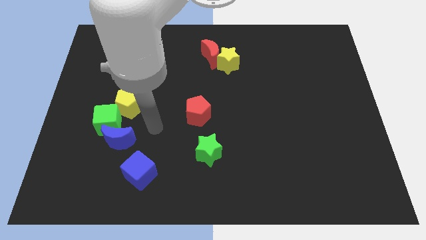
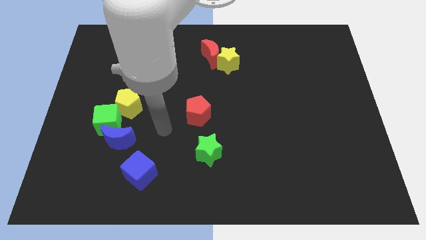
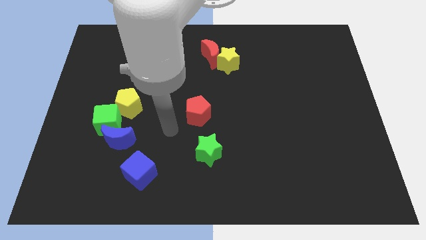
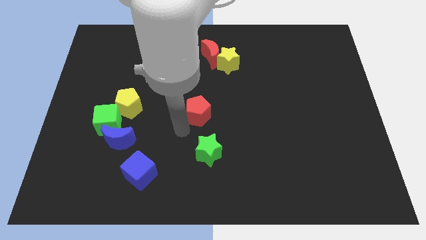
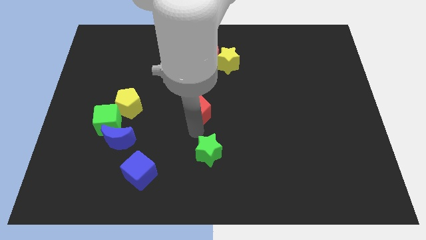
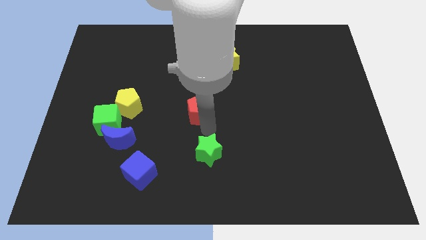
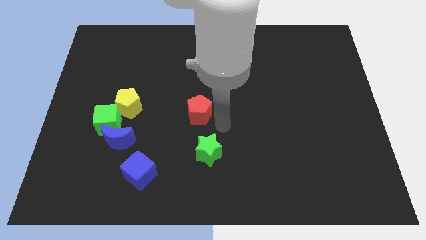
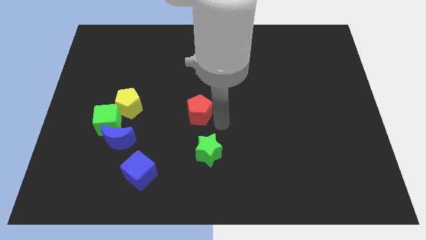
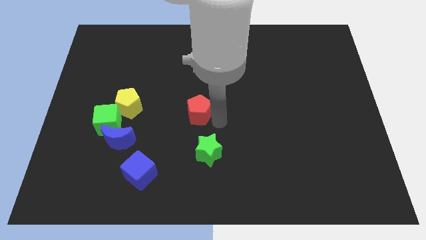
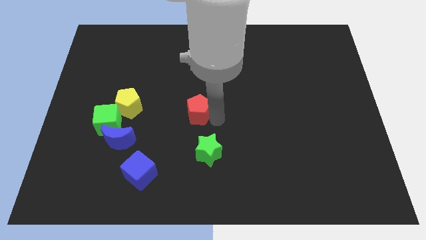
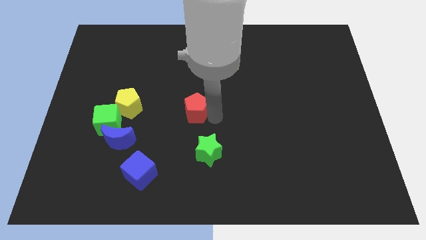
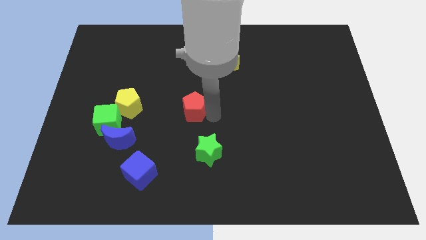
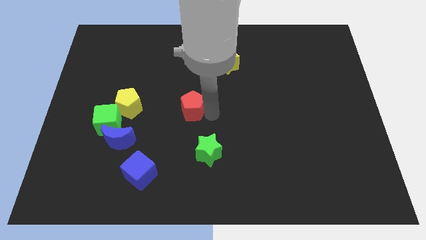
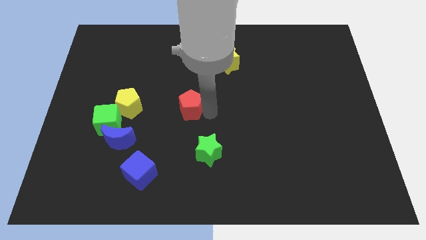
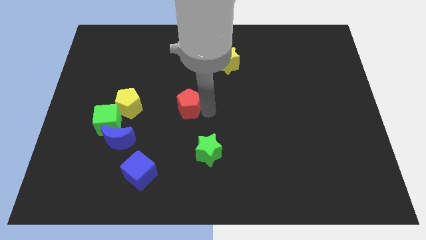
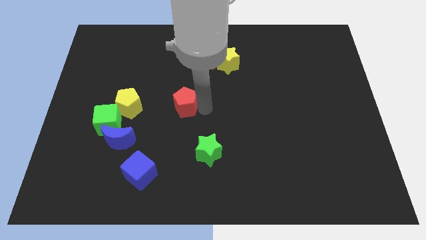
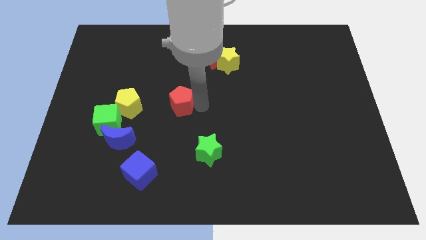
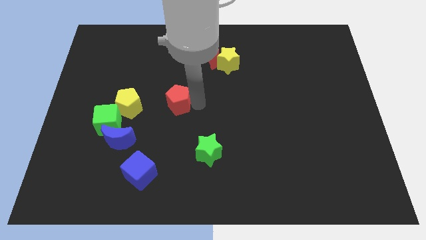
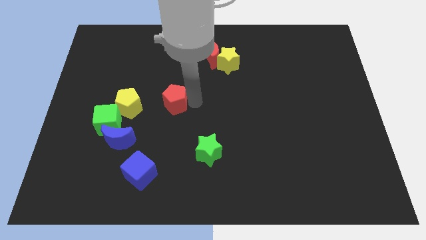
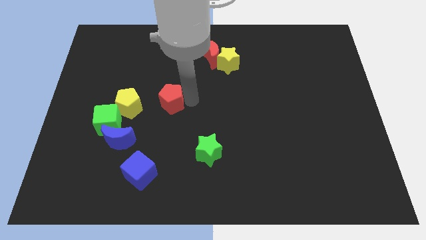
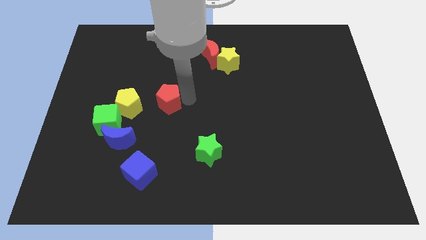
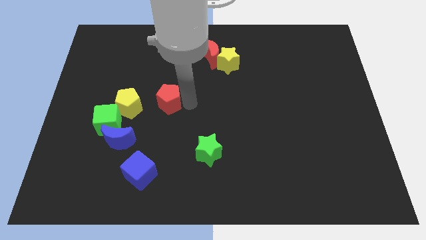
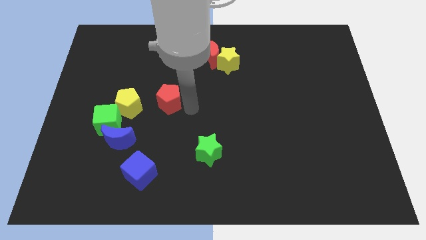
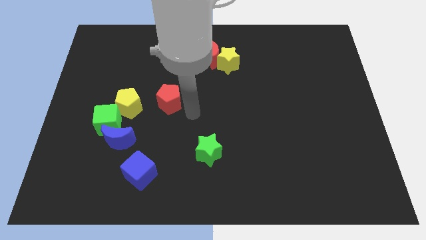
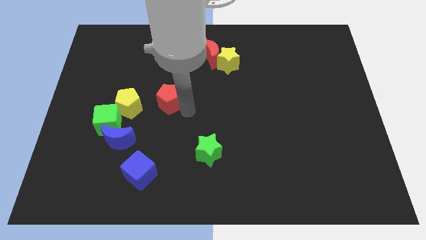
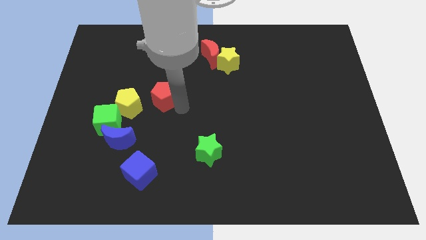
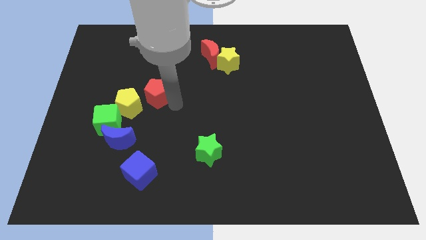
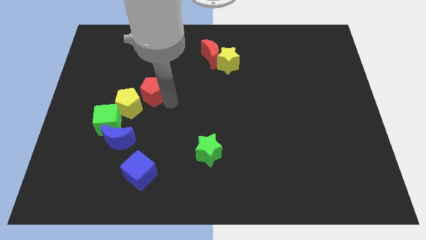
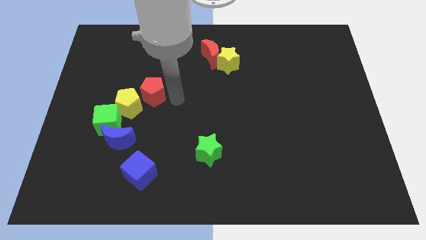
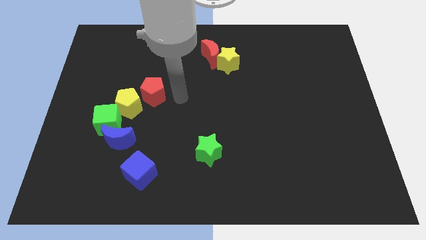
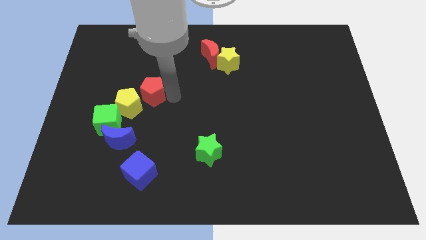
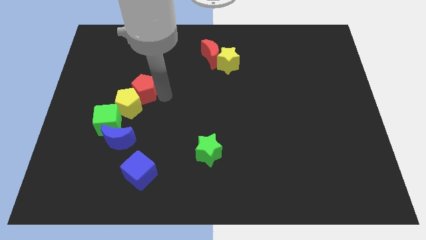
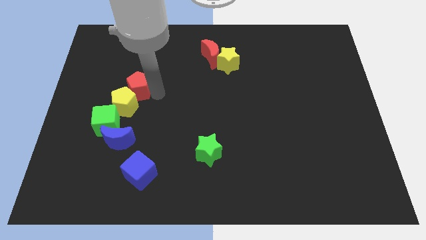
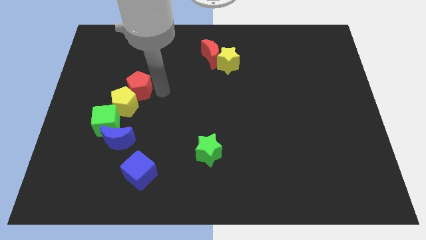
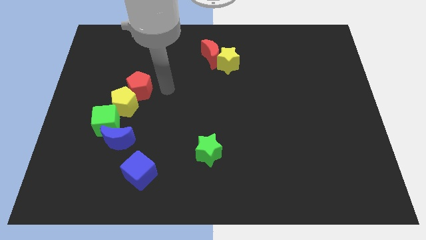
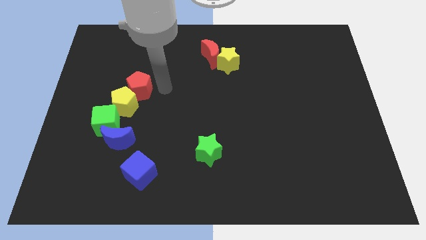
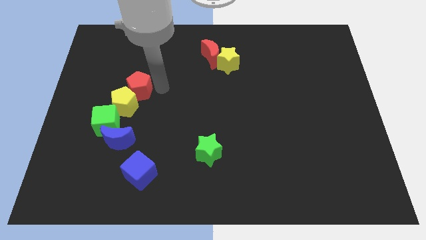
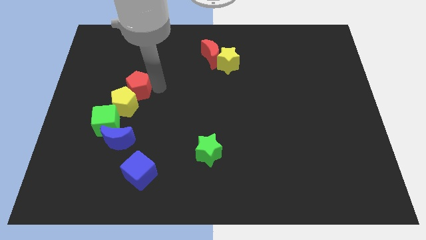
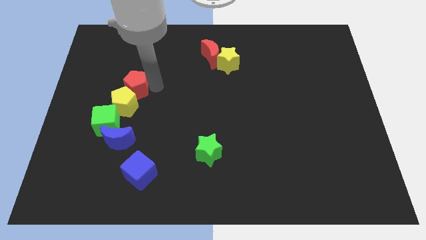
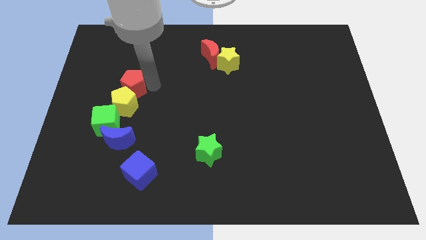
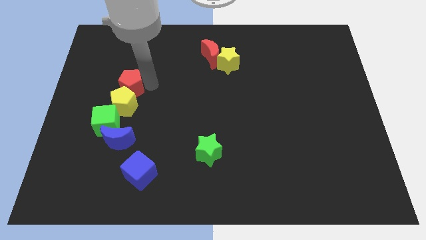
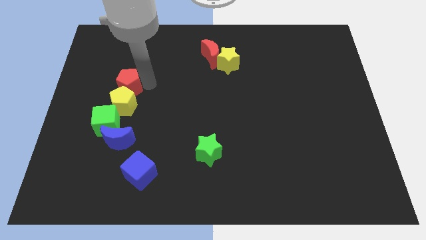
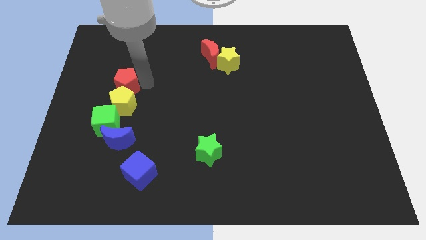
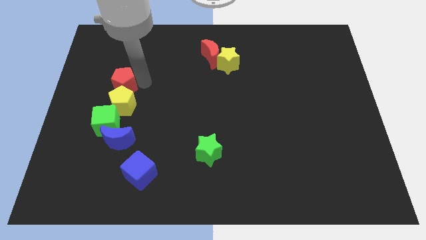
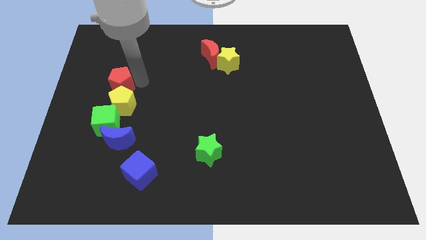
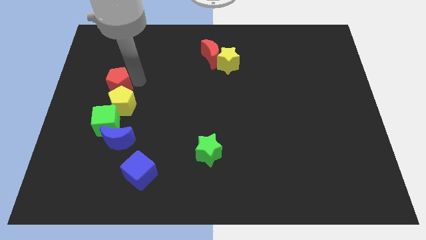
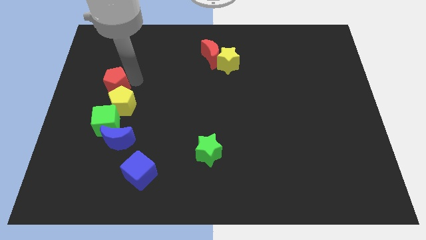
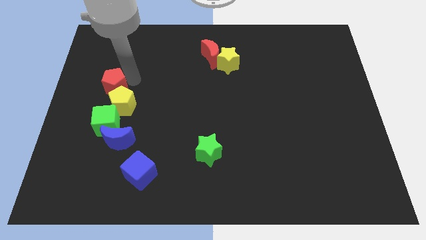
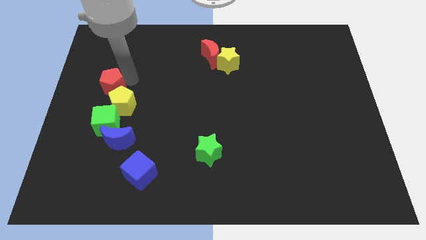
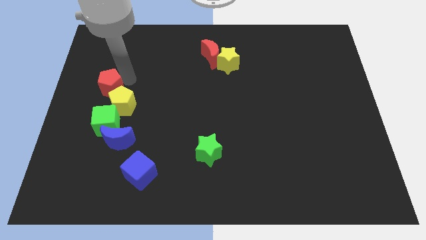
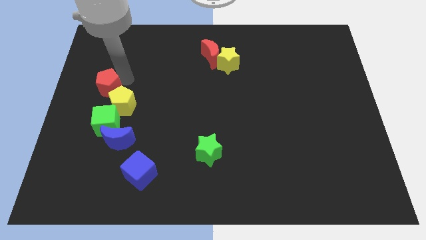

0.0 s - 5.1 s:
push the red pentagon to the left side

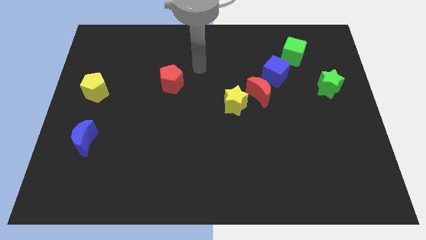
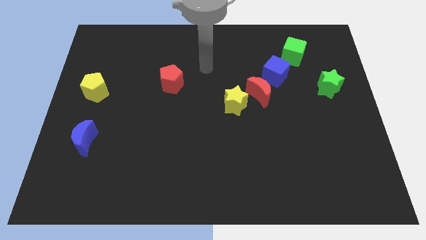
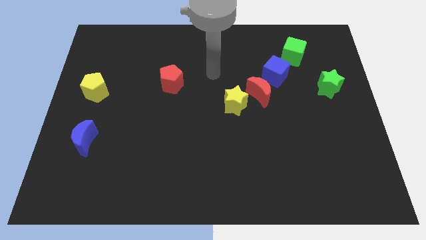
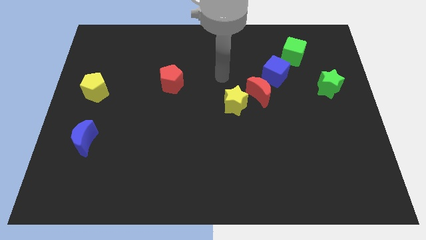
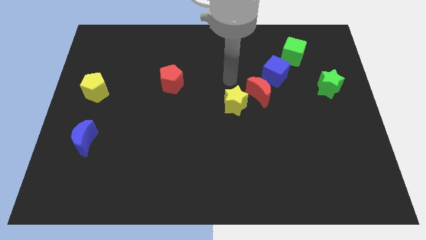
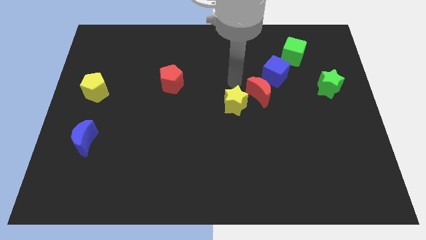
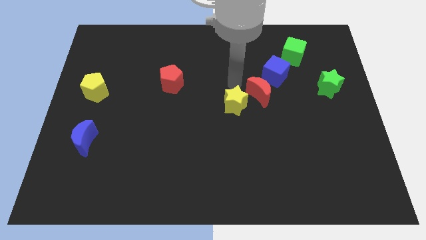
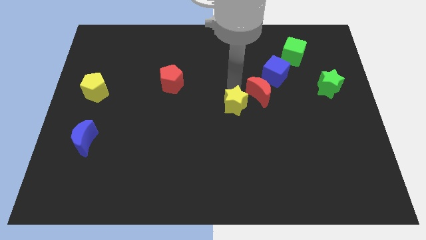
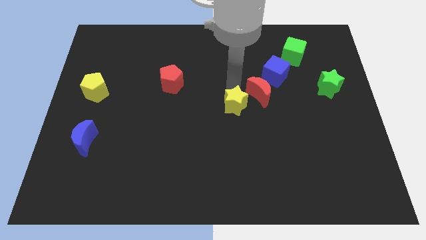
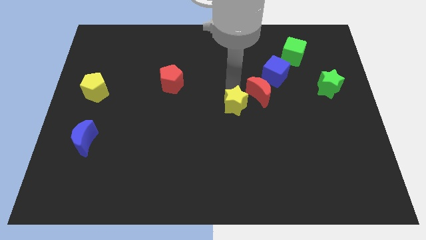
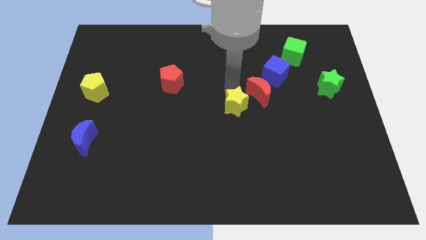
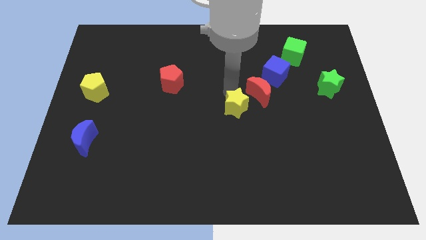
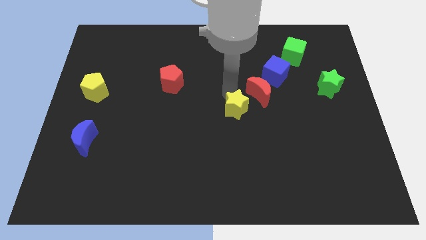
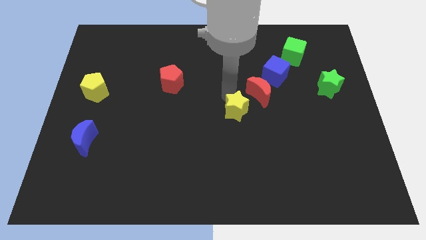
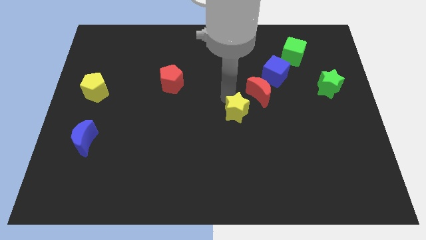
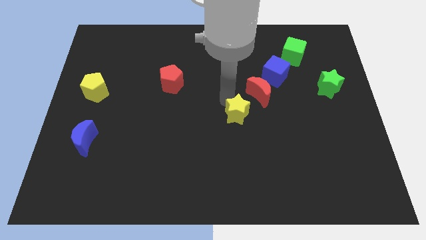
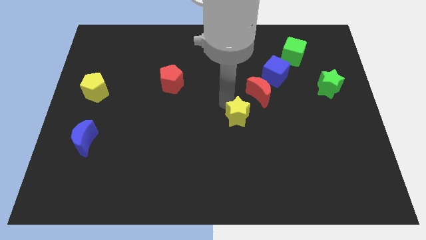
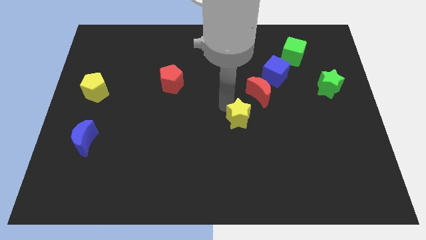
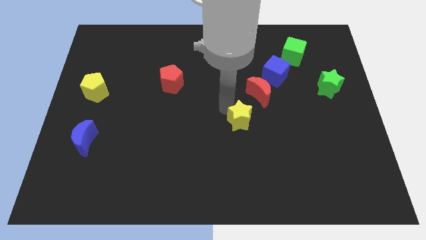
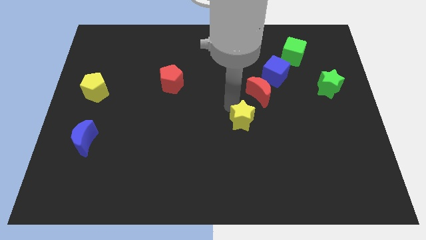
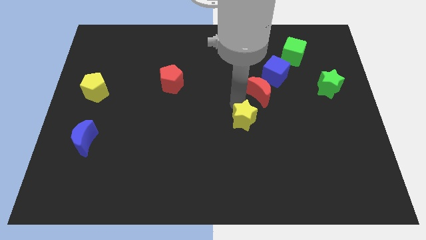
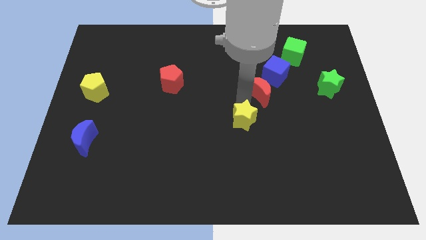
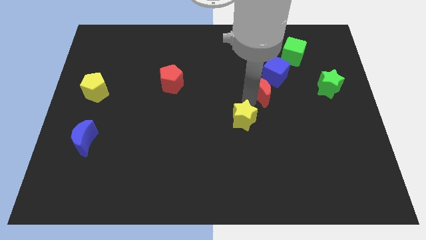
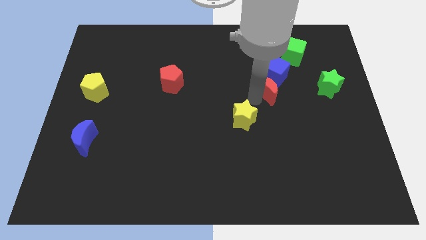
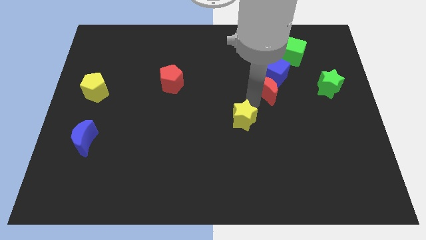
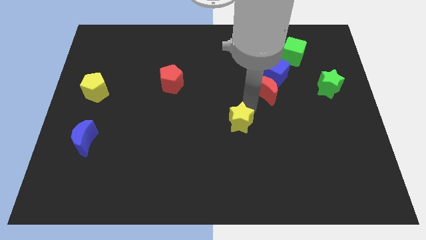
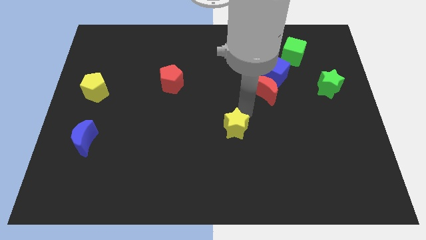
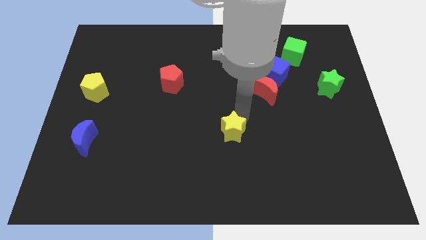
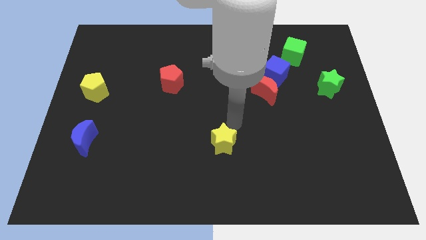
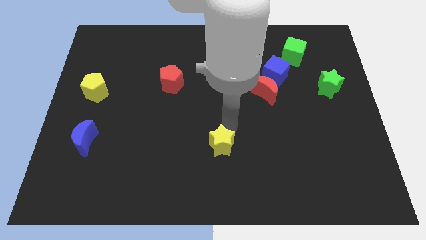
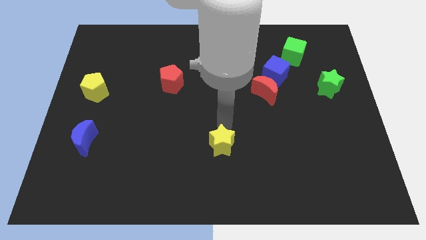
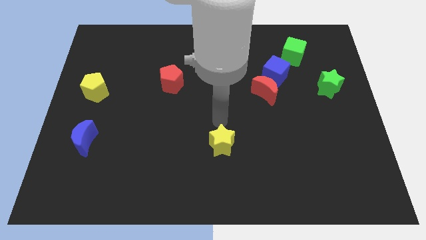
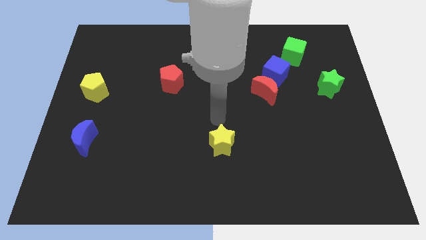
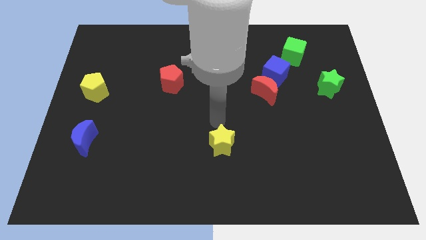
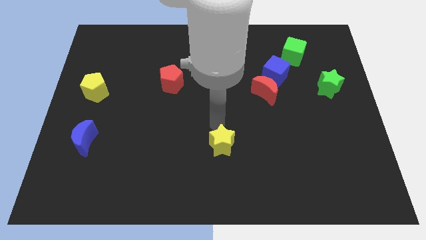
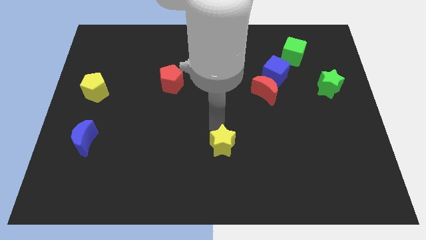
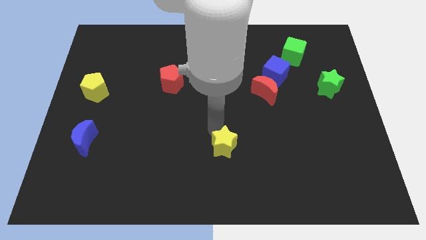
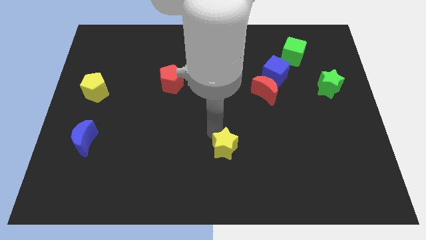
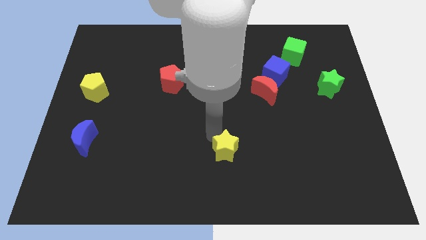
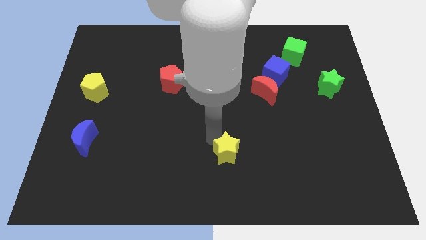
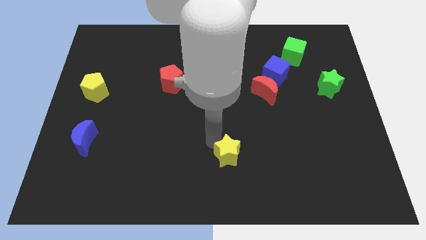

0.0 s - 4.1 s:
put the yellow star to the bottom side
